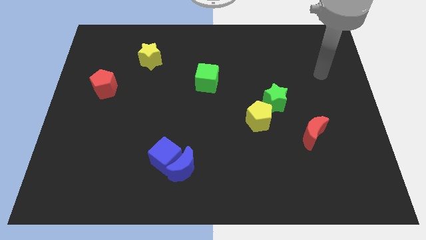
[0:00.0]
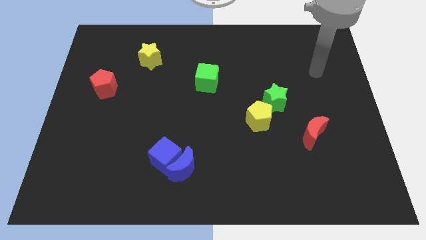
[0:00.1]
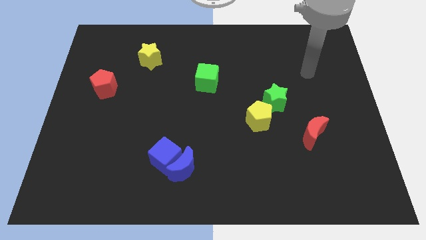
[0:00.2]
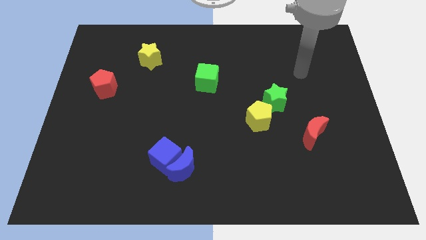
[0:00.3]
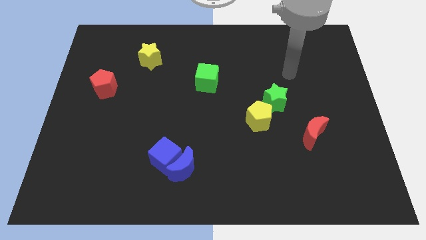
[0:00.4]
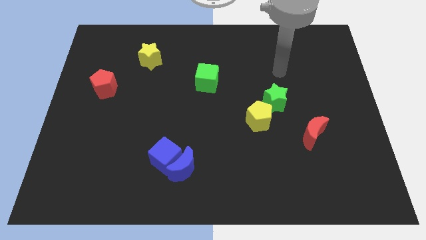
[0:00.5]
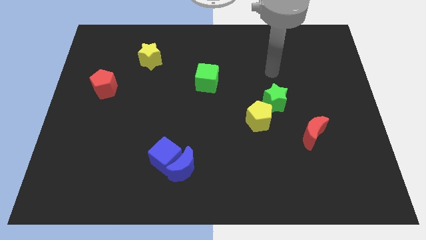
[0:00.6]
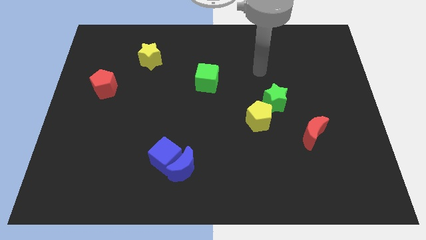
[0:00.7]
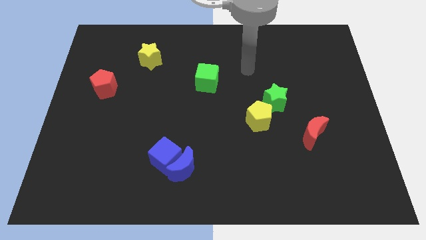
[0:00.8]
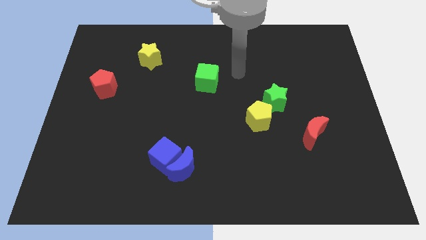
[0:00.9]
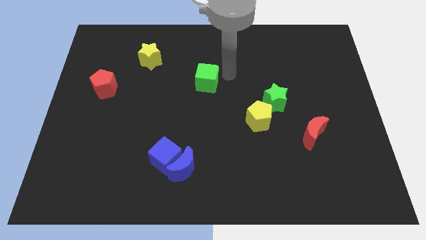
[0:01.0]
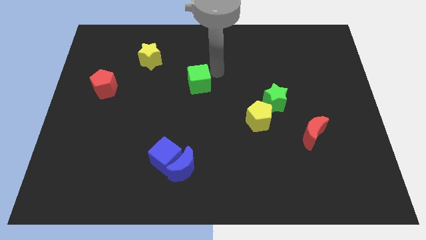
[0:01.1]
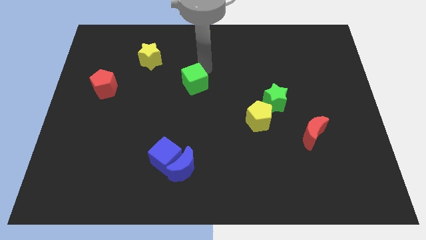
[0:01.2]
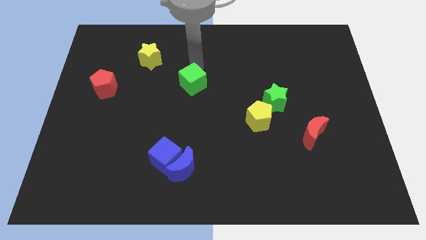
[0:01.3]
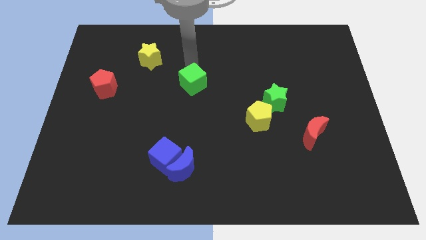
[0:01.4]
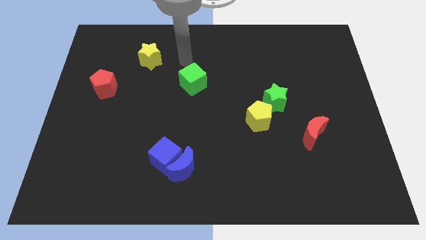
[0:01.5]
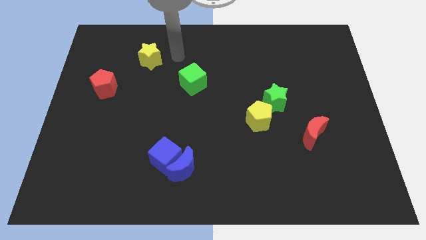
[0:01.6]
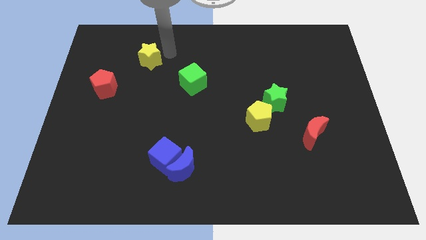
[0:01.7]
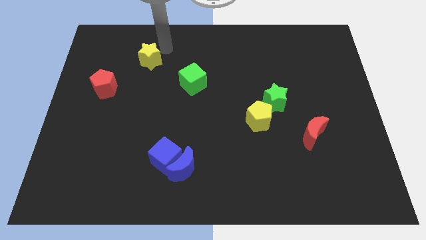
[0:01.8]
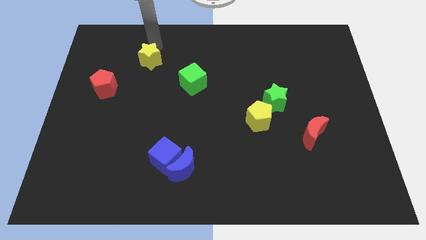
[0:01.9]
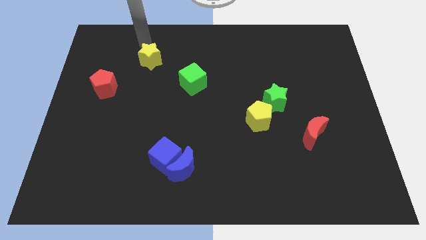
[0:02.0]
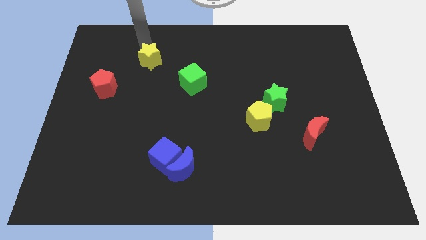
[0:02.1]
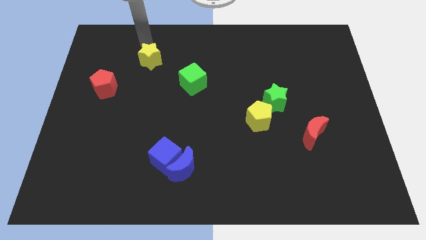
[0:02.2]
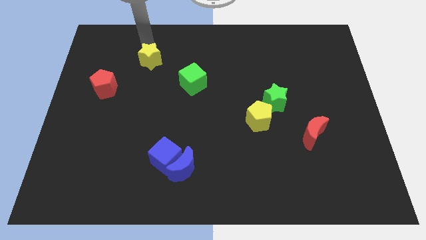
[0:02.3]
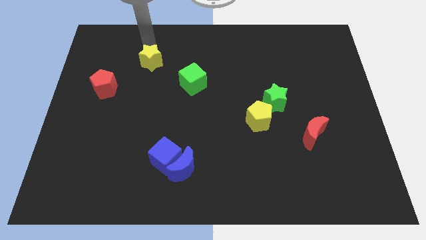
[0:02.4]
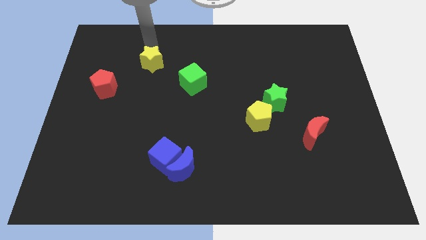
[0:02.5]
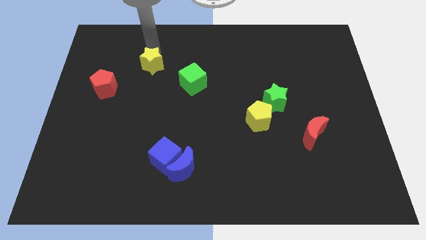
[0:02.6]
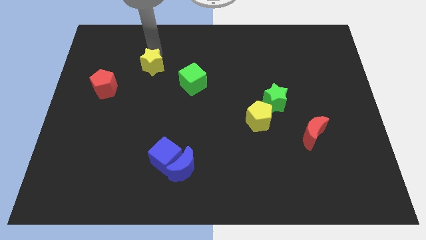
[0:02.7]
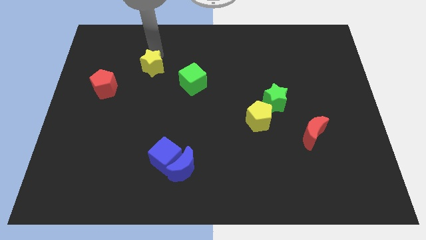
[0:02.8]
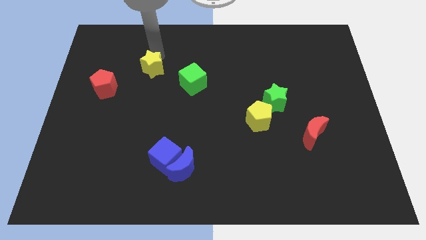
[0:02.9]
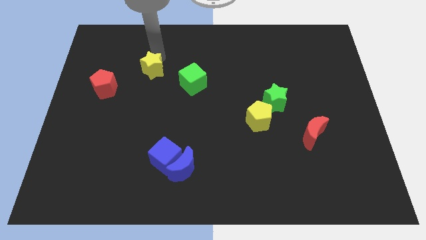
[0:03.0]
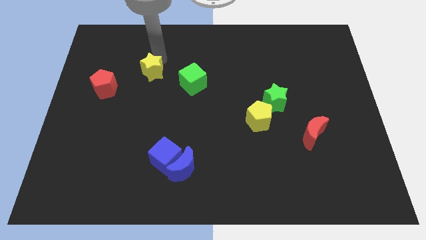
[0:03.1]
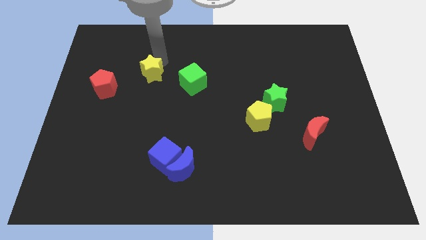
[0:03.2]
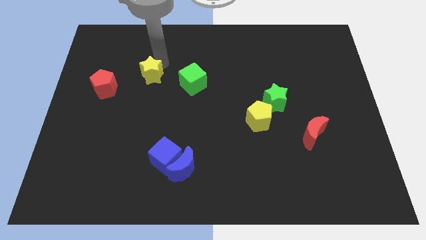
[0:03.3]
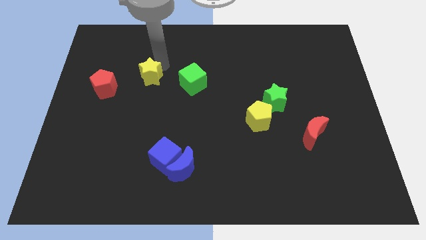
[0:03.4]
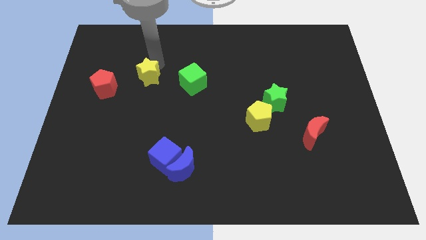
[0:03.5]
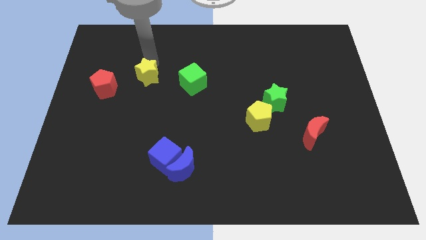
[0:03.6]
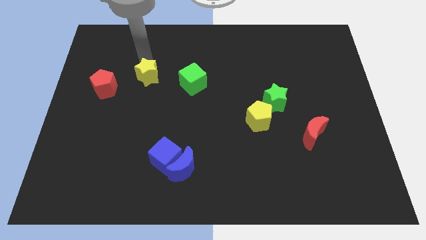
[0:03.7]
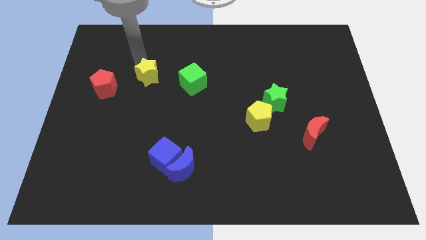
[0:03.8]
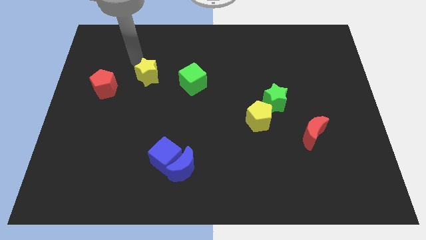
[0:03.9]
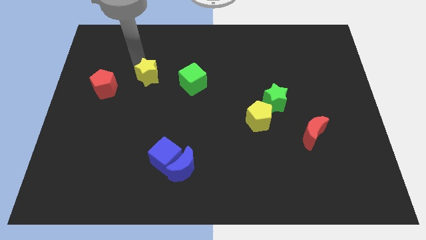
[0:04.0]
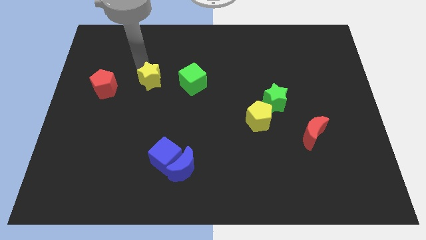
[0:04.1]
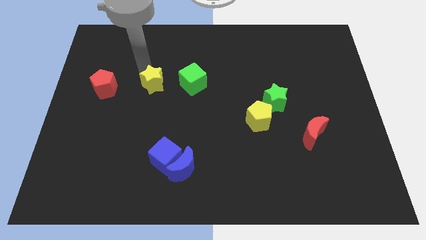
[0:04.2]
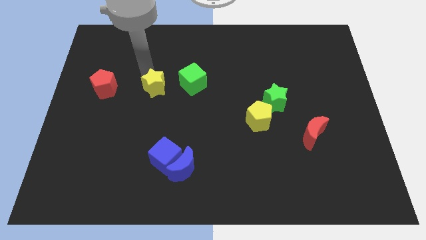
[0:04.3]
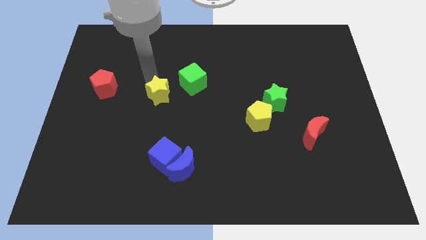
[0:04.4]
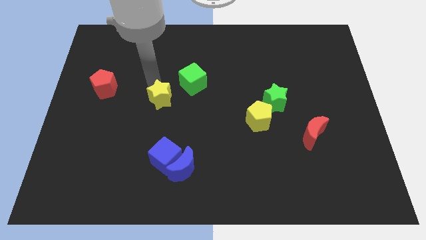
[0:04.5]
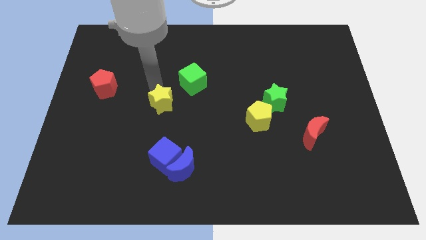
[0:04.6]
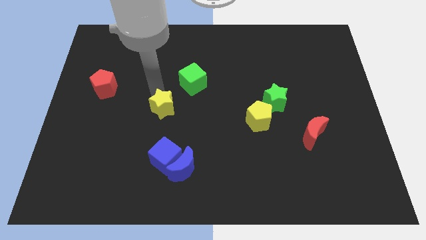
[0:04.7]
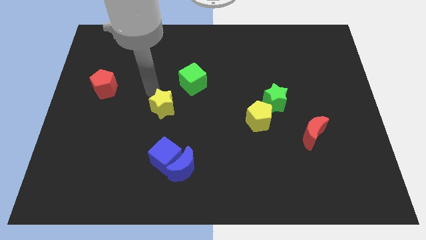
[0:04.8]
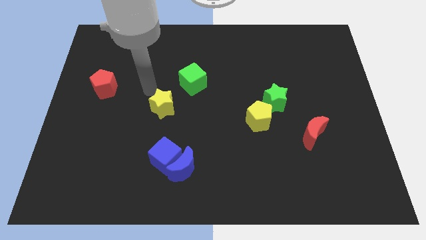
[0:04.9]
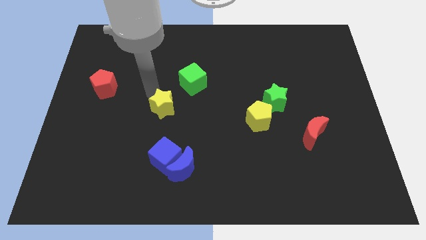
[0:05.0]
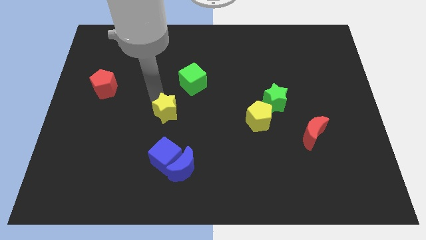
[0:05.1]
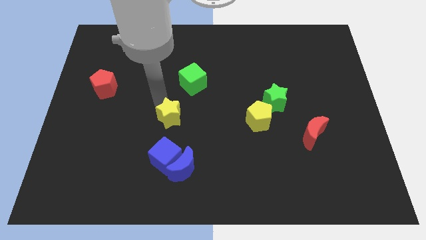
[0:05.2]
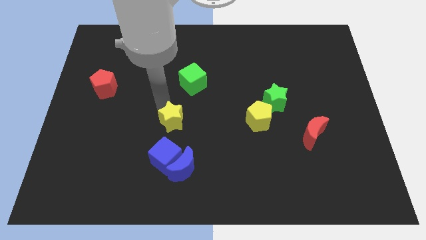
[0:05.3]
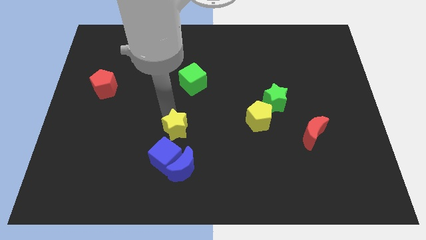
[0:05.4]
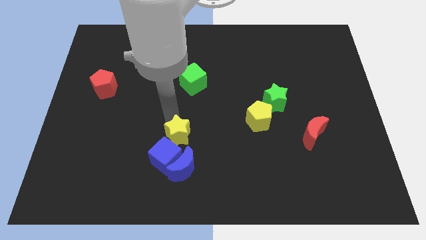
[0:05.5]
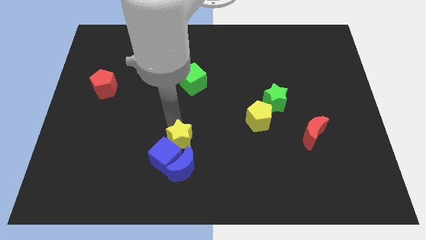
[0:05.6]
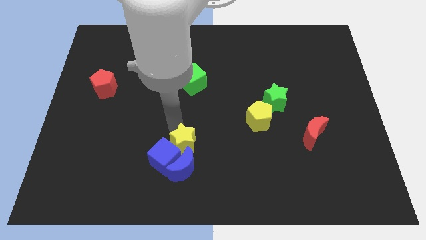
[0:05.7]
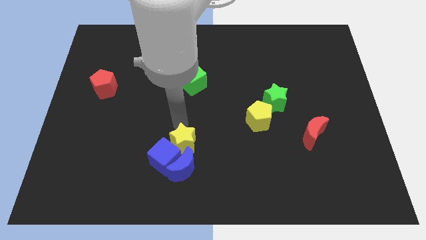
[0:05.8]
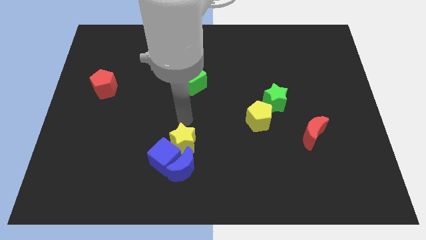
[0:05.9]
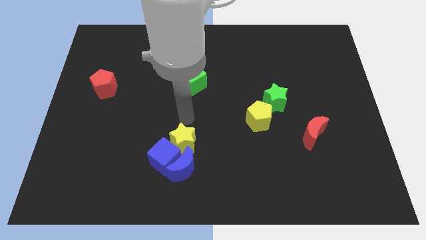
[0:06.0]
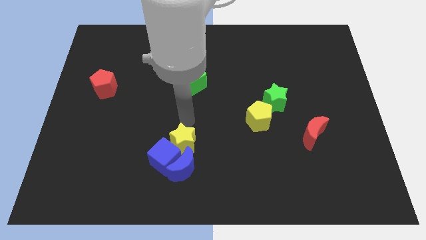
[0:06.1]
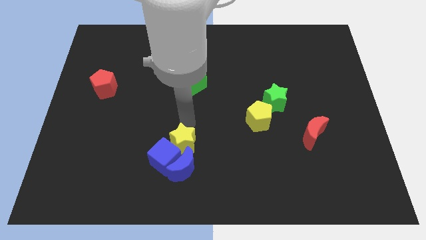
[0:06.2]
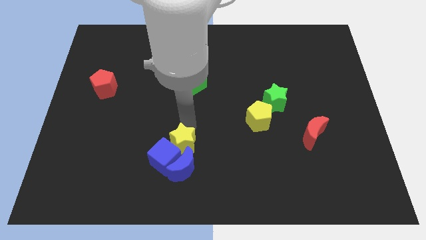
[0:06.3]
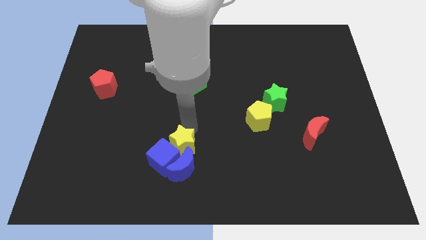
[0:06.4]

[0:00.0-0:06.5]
put the yellow star to the blue moon
